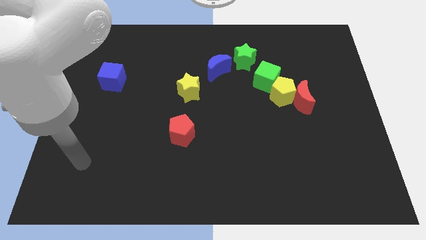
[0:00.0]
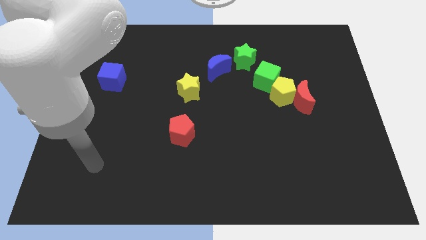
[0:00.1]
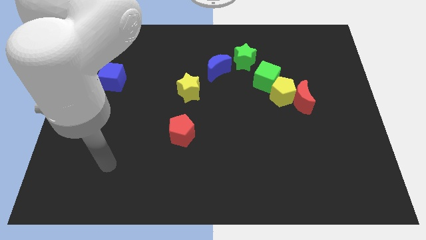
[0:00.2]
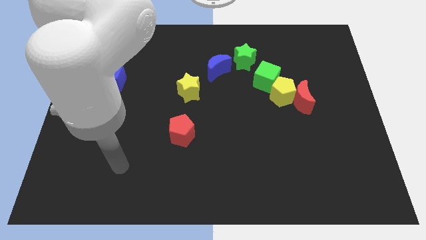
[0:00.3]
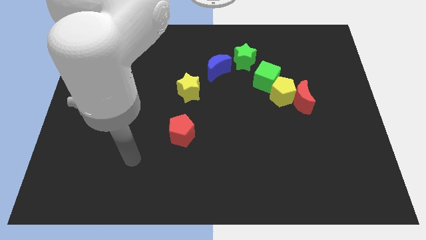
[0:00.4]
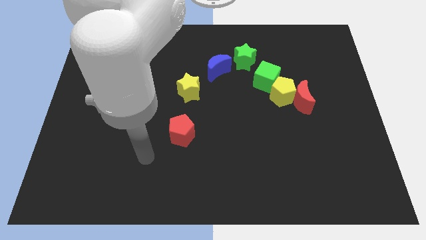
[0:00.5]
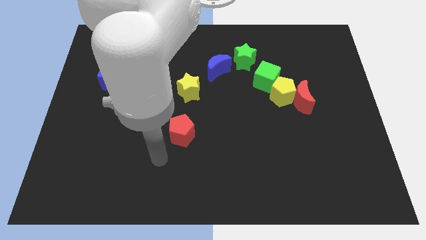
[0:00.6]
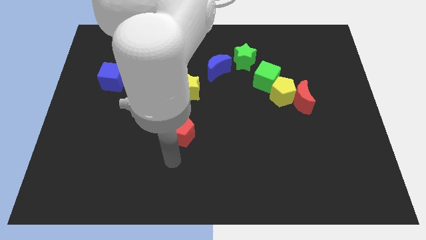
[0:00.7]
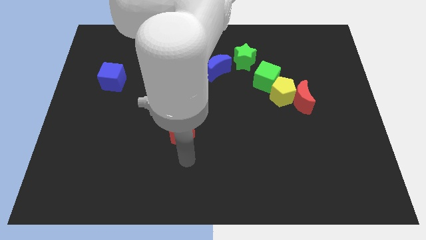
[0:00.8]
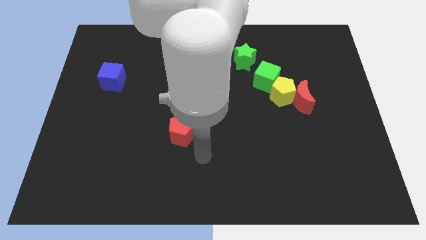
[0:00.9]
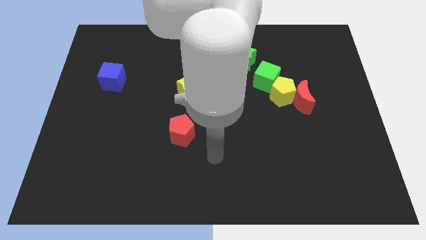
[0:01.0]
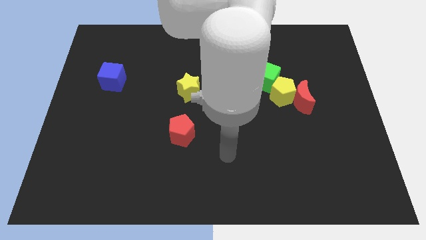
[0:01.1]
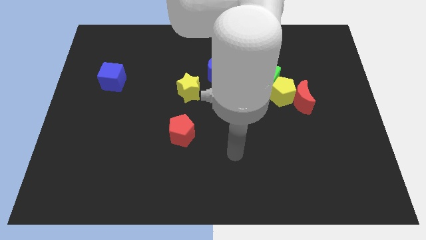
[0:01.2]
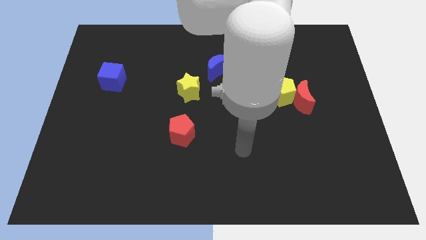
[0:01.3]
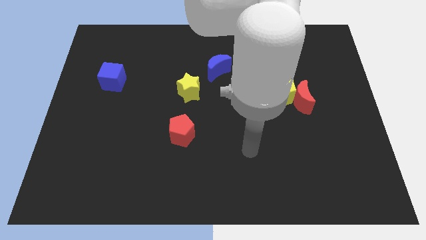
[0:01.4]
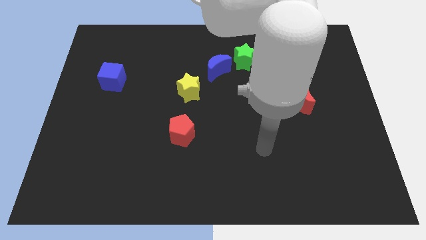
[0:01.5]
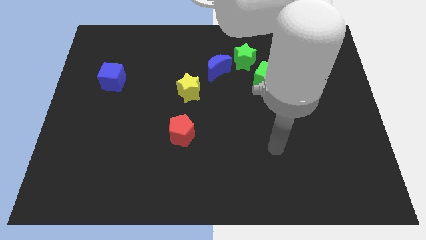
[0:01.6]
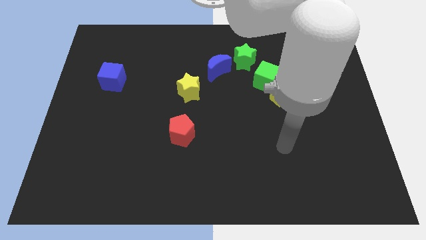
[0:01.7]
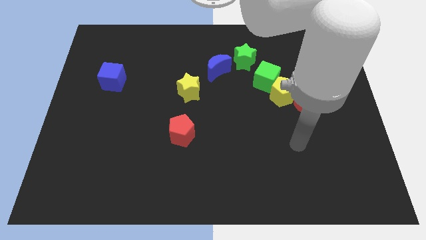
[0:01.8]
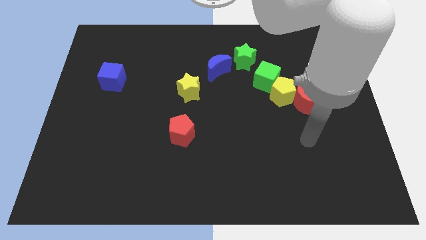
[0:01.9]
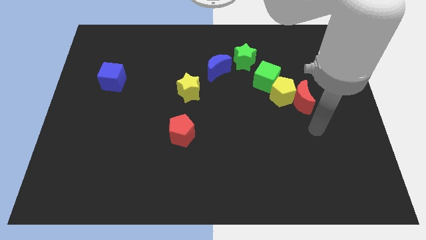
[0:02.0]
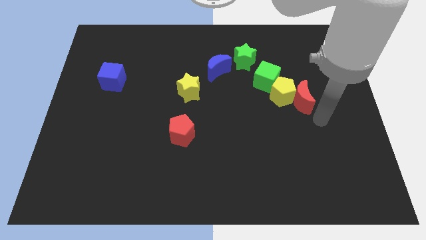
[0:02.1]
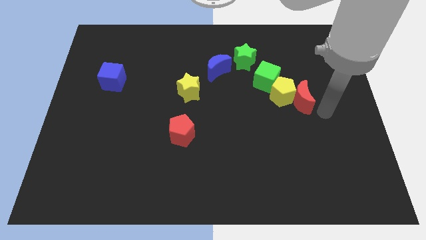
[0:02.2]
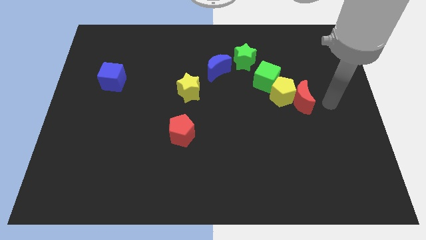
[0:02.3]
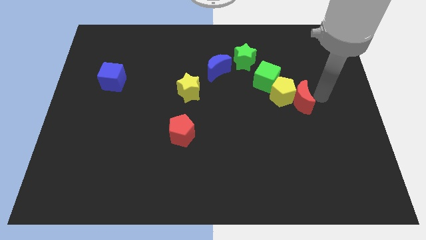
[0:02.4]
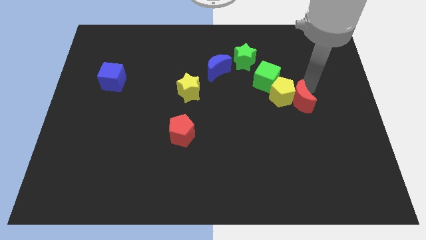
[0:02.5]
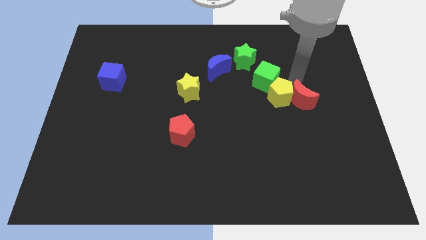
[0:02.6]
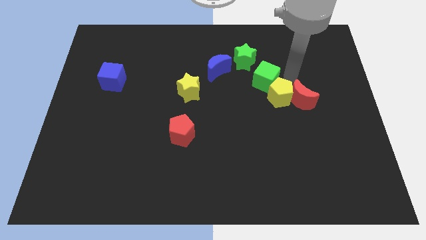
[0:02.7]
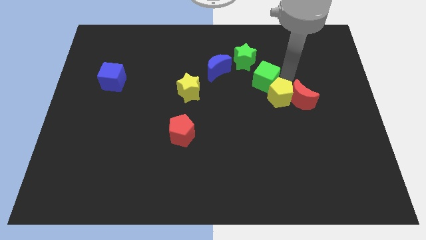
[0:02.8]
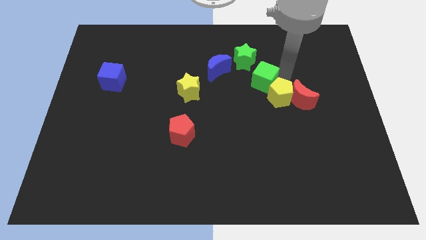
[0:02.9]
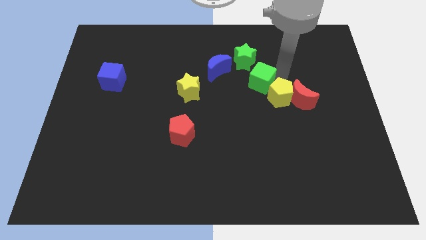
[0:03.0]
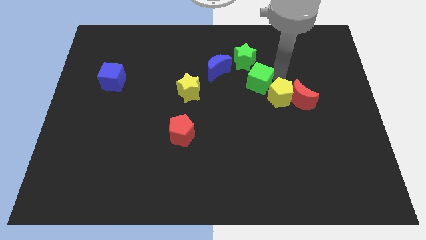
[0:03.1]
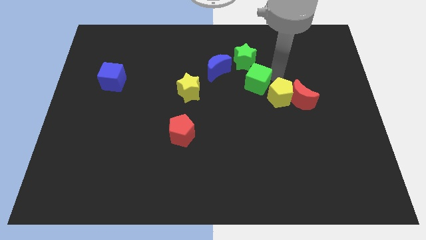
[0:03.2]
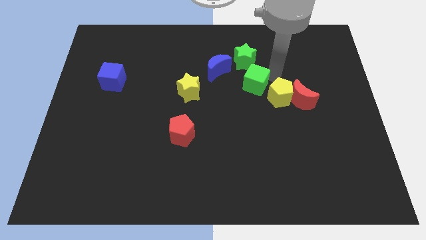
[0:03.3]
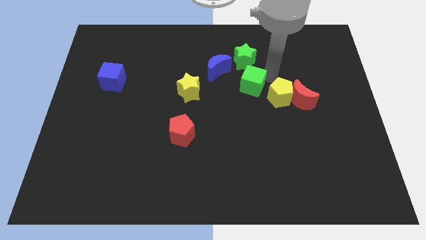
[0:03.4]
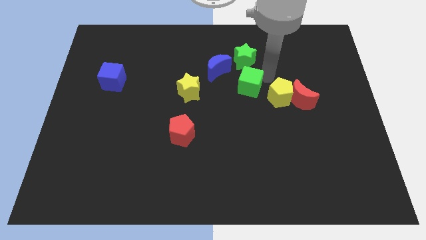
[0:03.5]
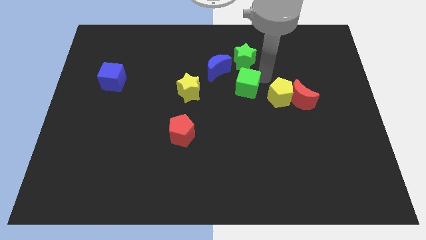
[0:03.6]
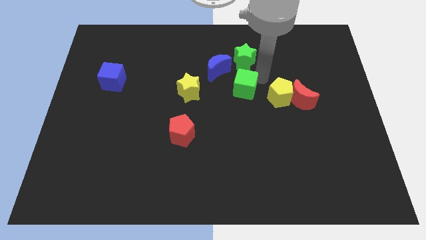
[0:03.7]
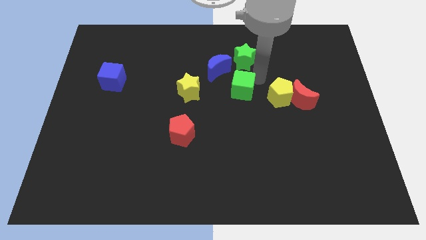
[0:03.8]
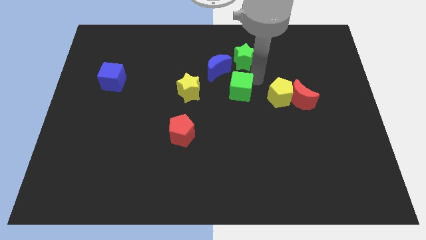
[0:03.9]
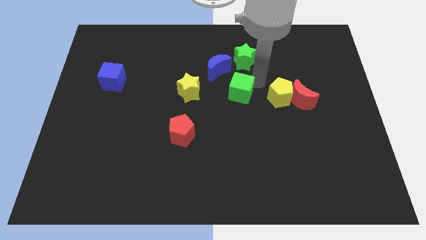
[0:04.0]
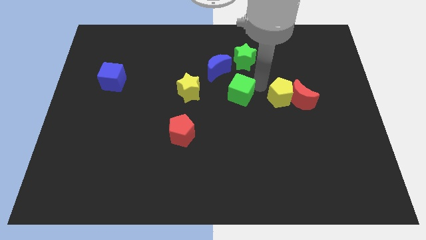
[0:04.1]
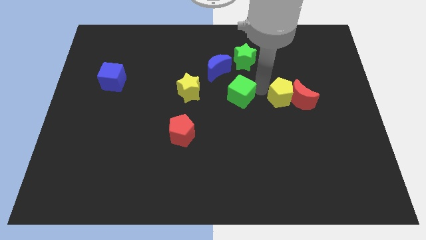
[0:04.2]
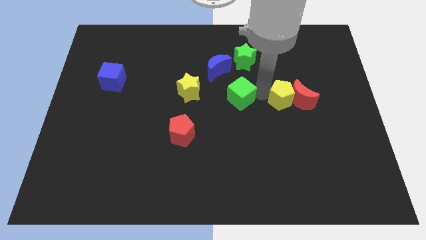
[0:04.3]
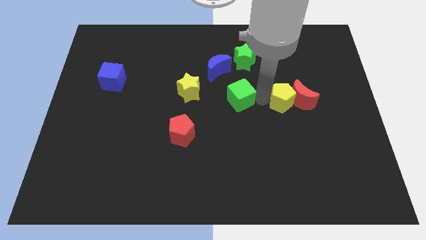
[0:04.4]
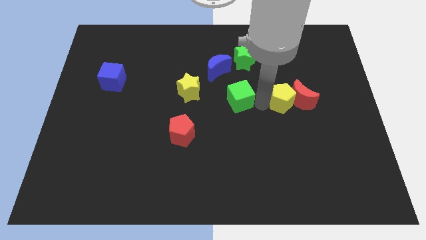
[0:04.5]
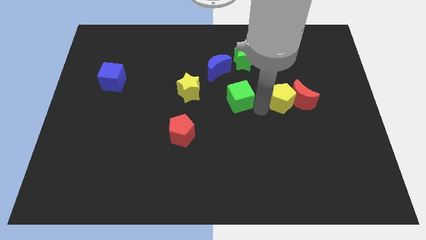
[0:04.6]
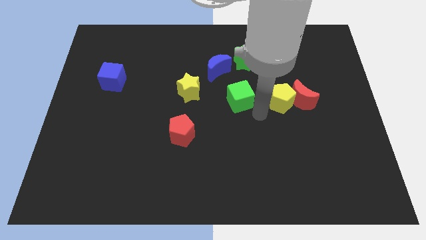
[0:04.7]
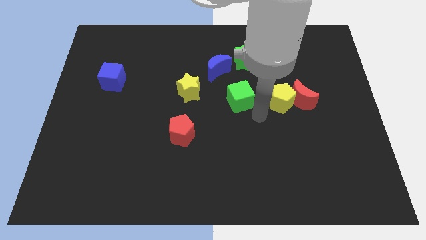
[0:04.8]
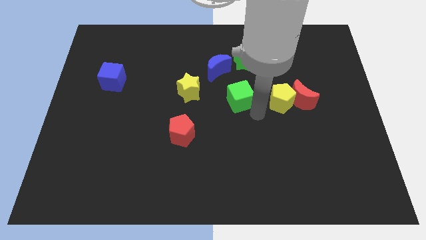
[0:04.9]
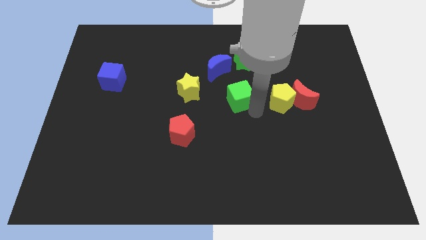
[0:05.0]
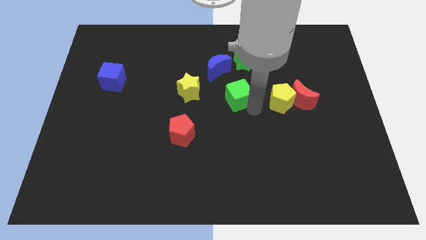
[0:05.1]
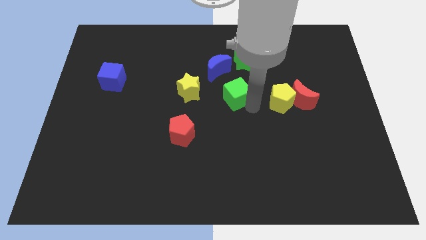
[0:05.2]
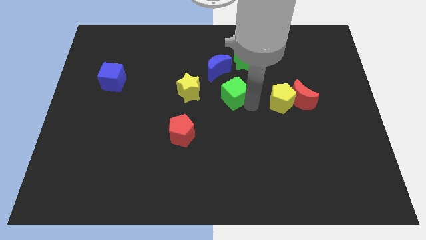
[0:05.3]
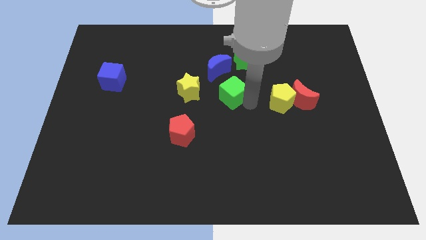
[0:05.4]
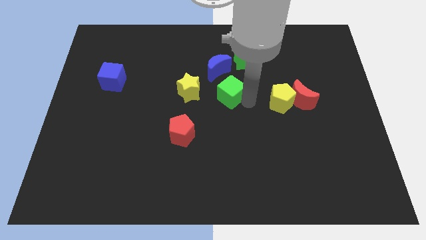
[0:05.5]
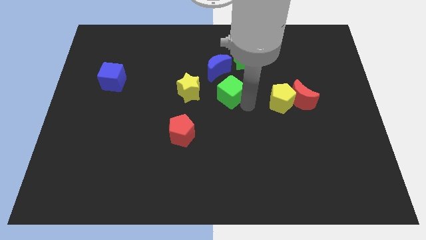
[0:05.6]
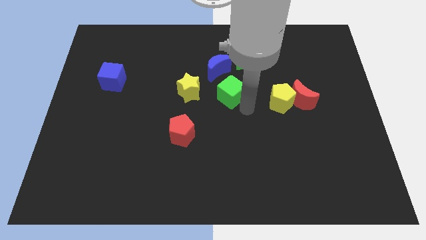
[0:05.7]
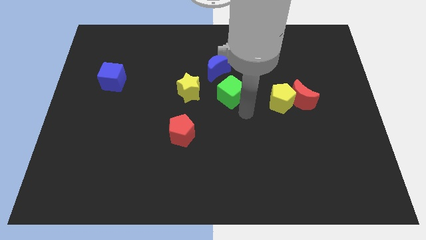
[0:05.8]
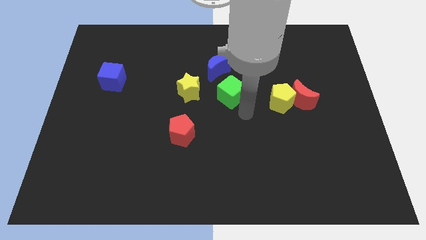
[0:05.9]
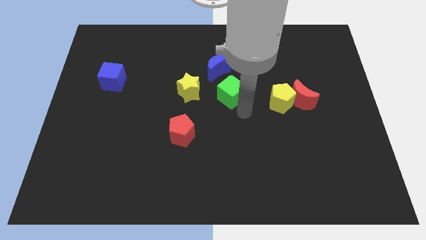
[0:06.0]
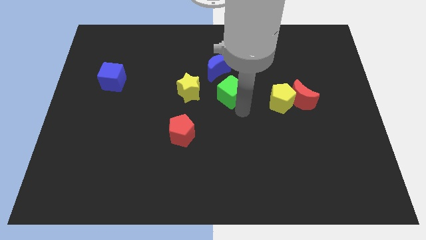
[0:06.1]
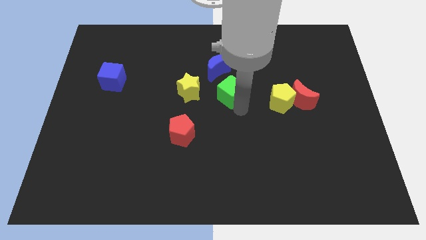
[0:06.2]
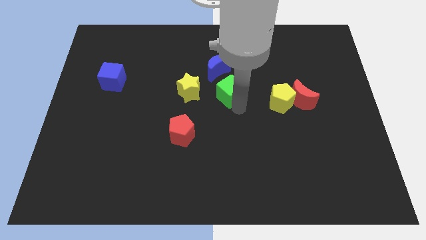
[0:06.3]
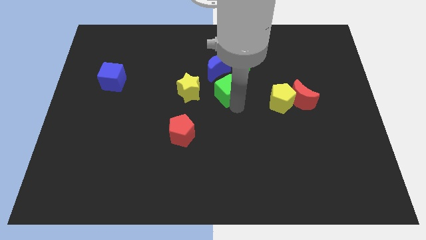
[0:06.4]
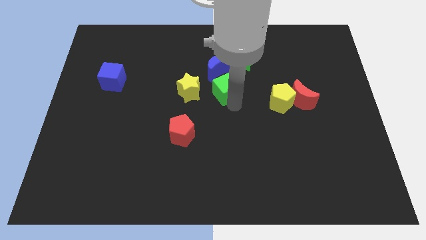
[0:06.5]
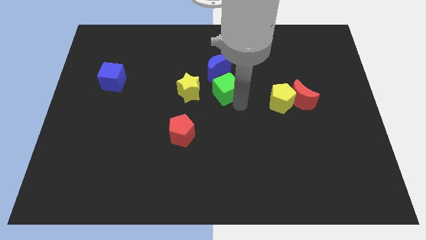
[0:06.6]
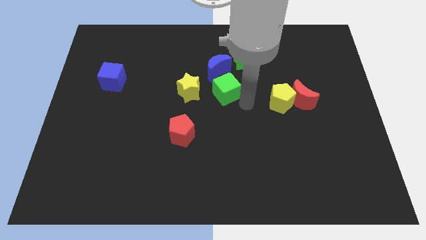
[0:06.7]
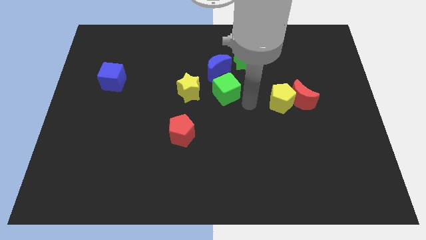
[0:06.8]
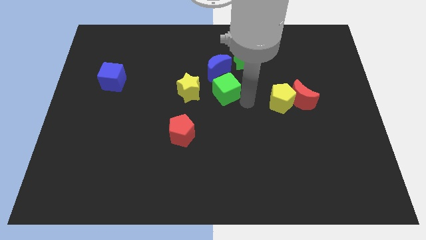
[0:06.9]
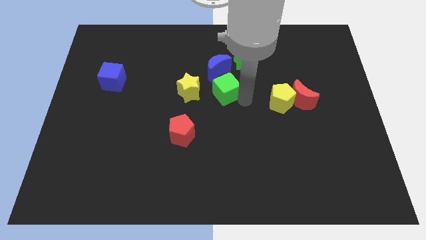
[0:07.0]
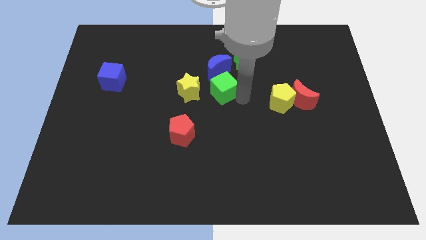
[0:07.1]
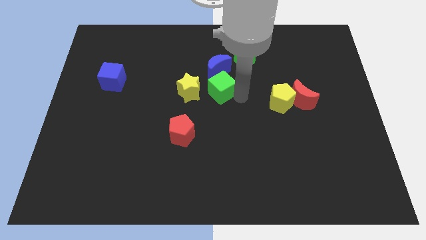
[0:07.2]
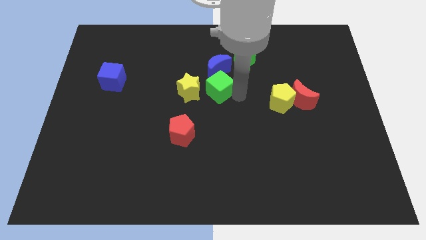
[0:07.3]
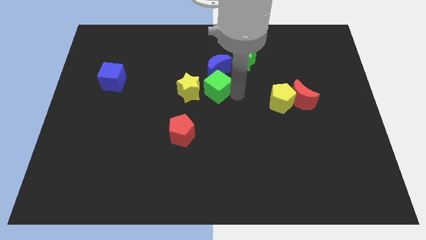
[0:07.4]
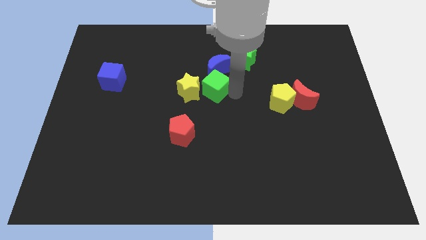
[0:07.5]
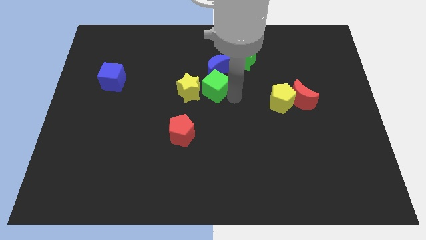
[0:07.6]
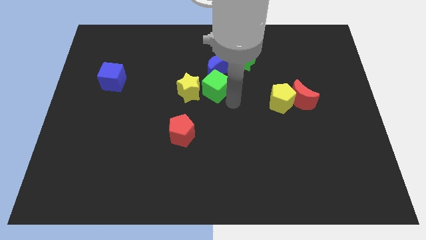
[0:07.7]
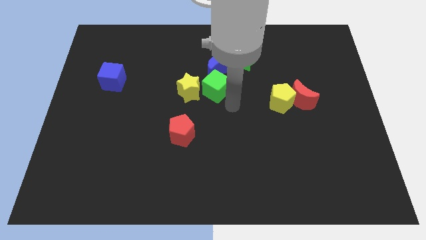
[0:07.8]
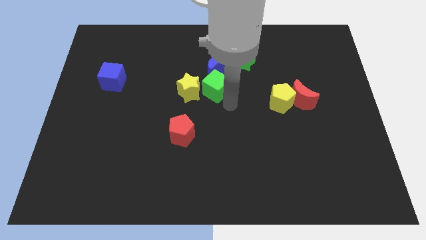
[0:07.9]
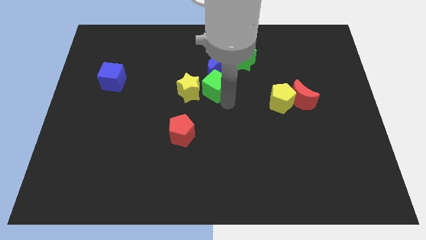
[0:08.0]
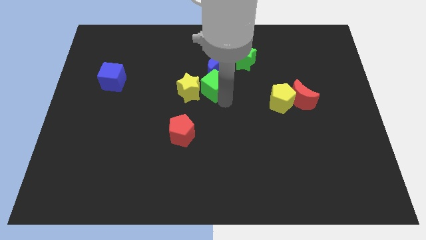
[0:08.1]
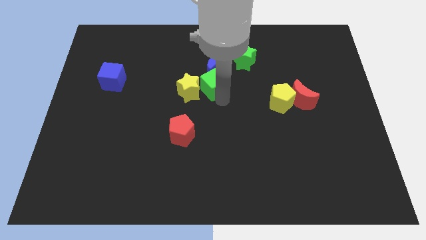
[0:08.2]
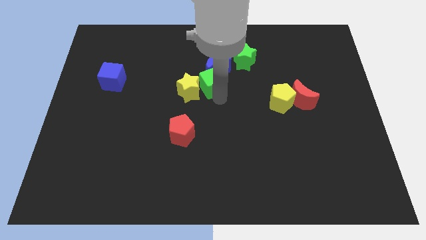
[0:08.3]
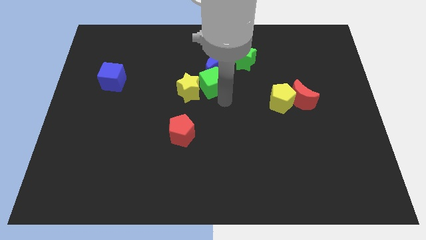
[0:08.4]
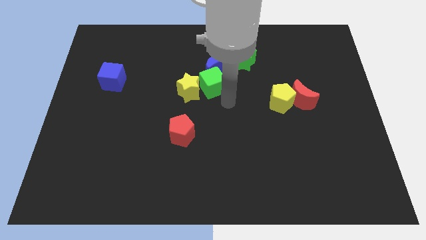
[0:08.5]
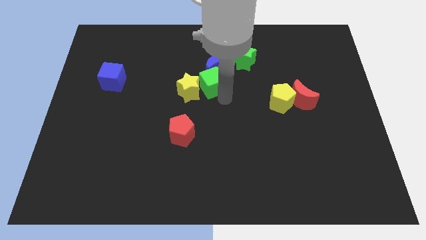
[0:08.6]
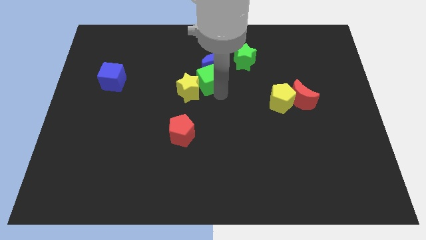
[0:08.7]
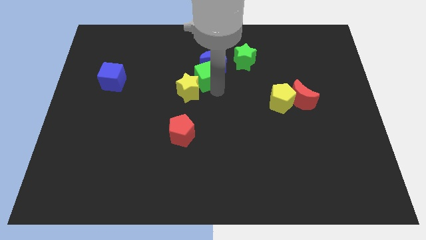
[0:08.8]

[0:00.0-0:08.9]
slide the green cube to the top of the yellow star
